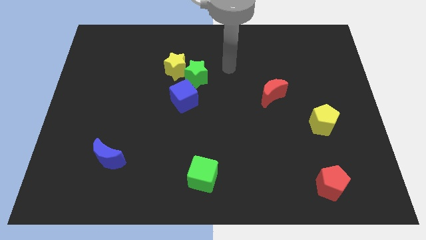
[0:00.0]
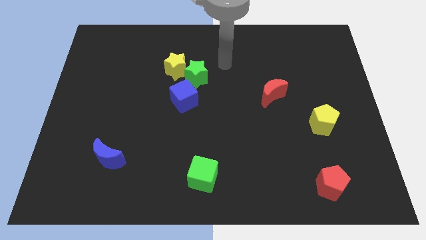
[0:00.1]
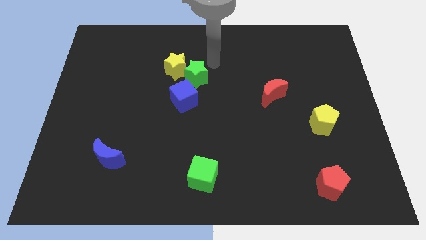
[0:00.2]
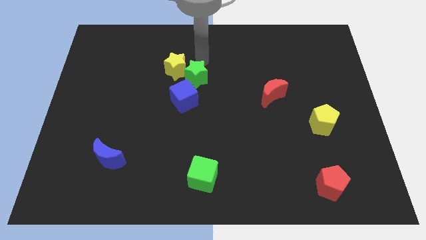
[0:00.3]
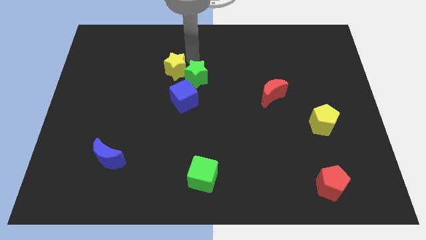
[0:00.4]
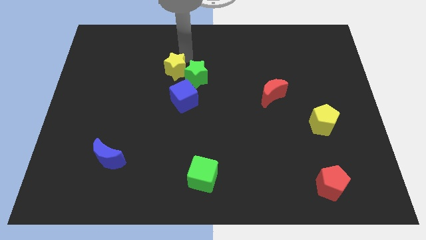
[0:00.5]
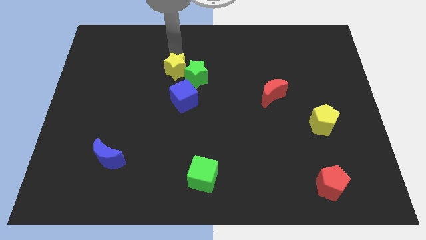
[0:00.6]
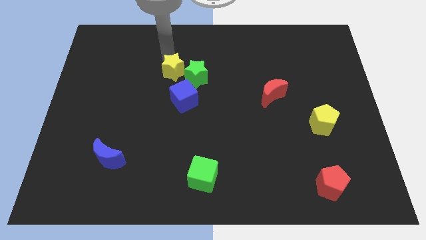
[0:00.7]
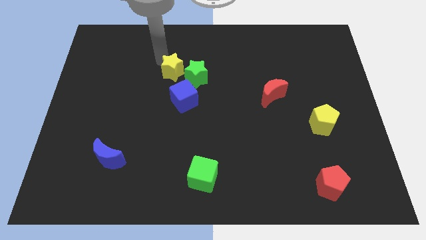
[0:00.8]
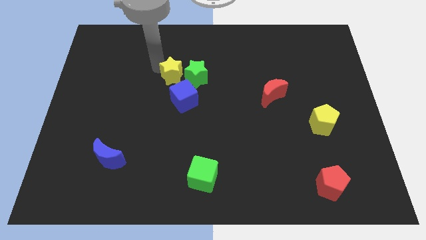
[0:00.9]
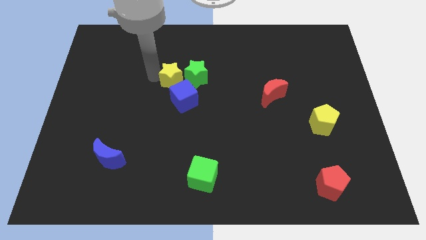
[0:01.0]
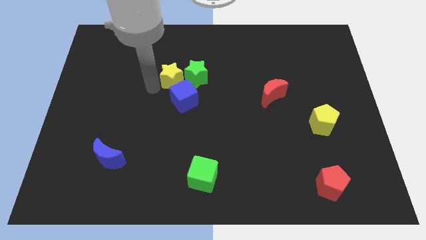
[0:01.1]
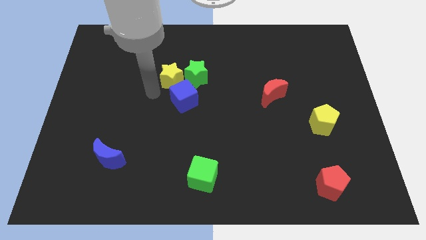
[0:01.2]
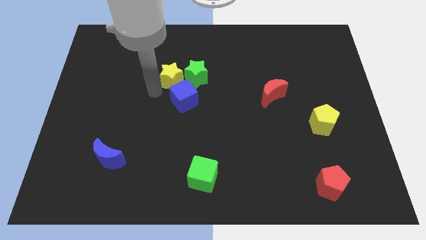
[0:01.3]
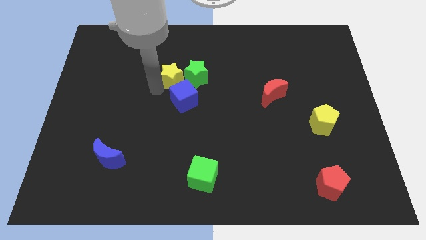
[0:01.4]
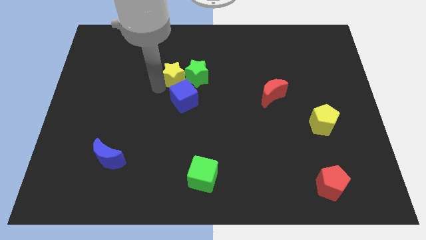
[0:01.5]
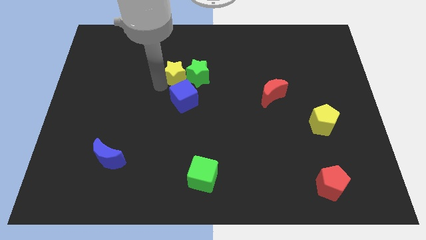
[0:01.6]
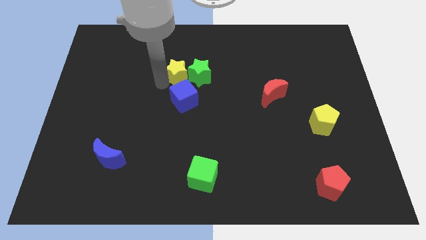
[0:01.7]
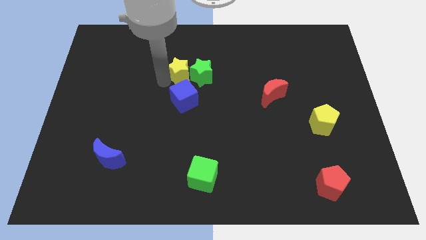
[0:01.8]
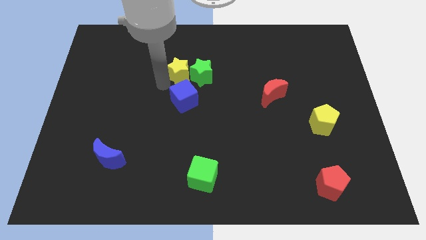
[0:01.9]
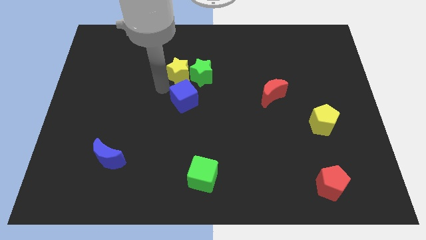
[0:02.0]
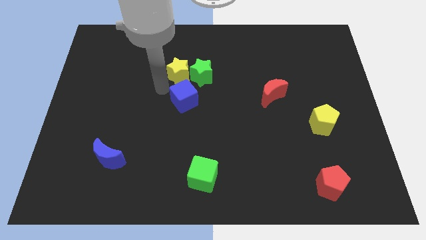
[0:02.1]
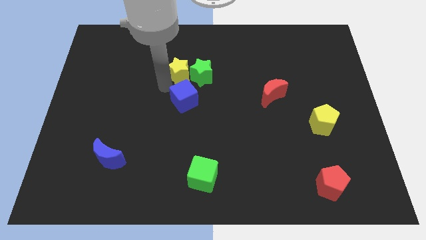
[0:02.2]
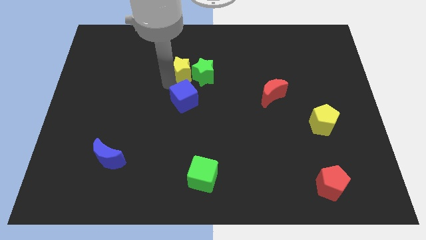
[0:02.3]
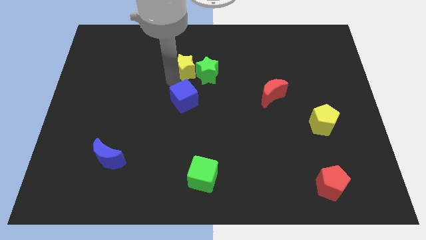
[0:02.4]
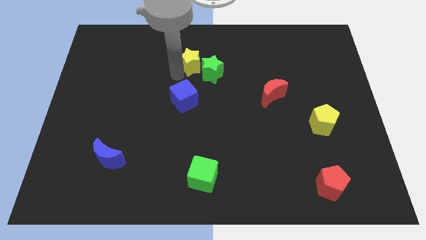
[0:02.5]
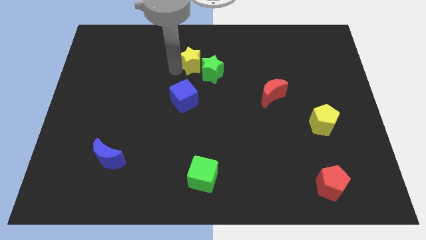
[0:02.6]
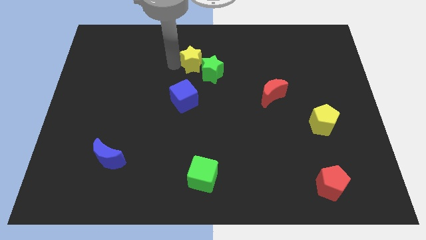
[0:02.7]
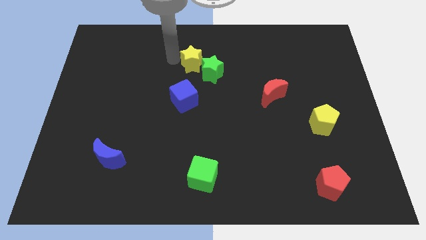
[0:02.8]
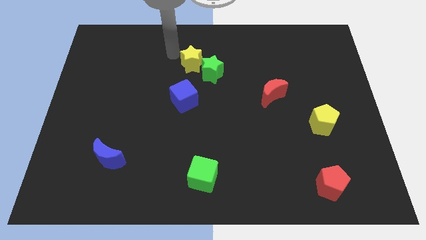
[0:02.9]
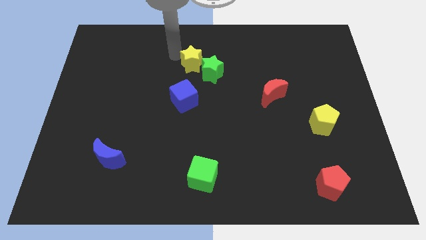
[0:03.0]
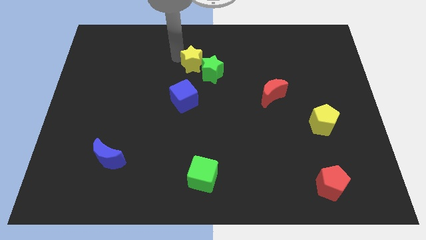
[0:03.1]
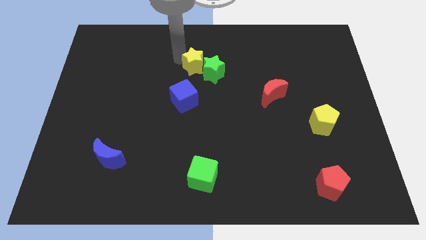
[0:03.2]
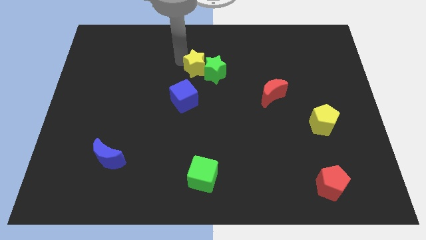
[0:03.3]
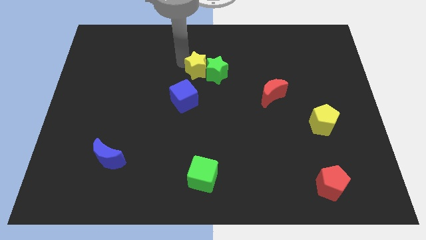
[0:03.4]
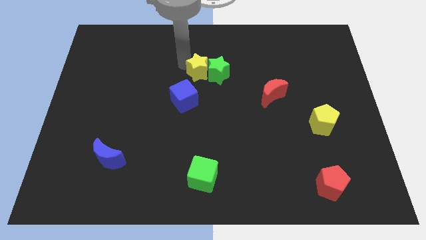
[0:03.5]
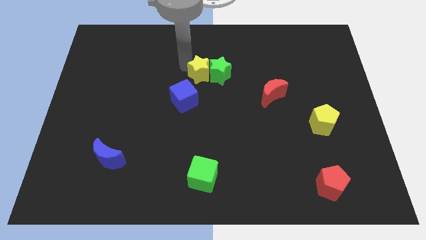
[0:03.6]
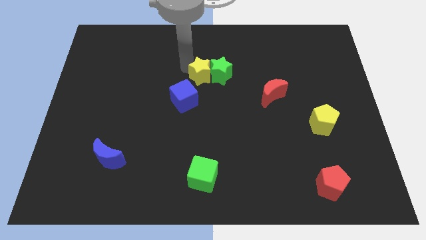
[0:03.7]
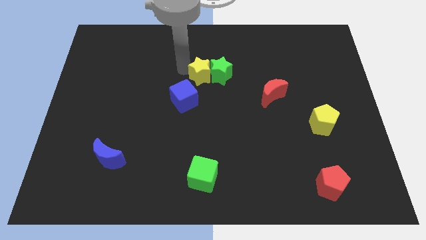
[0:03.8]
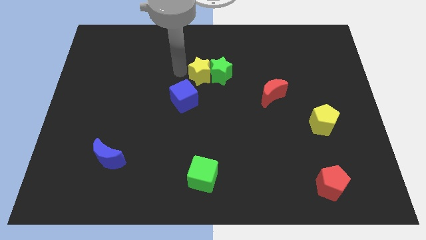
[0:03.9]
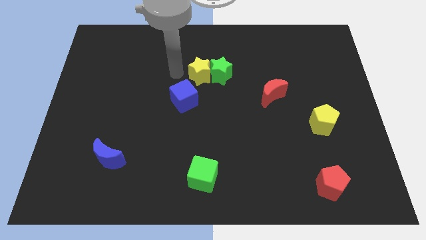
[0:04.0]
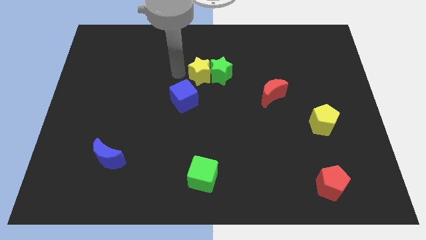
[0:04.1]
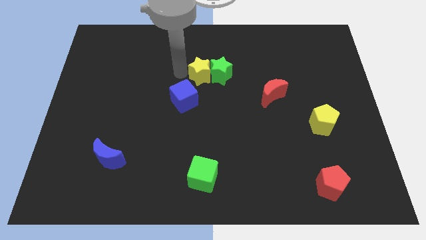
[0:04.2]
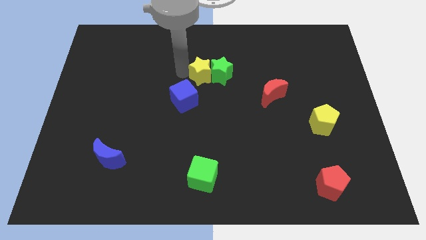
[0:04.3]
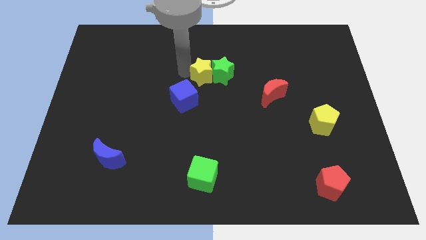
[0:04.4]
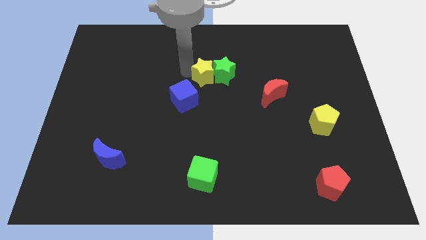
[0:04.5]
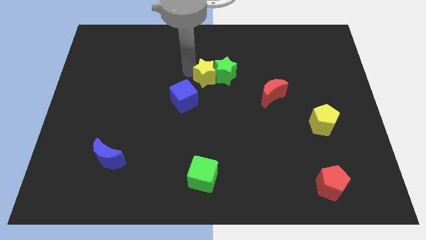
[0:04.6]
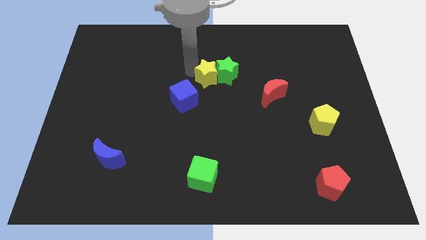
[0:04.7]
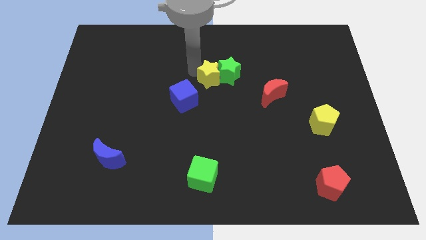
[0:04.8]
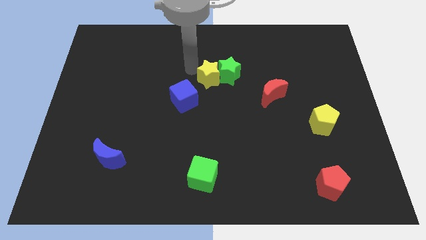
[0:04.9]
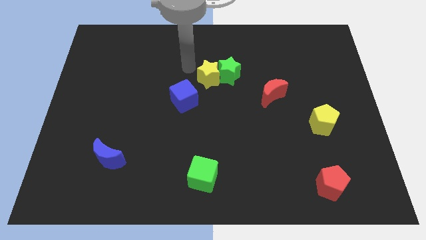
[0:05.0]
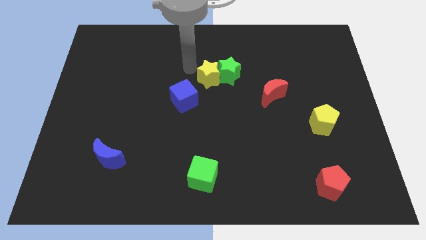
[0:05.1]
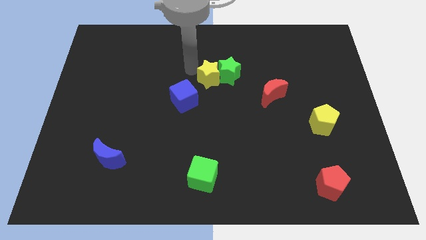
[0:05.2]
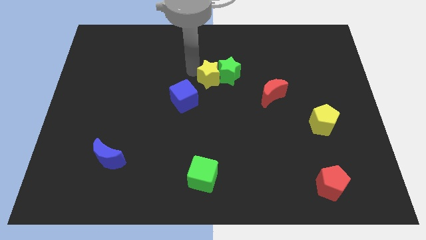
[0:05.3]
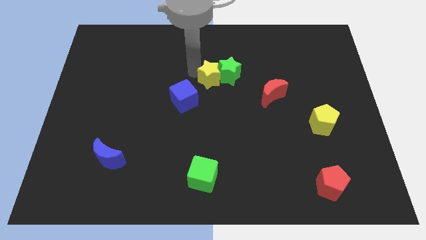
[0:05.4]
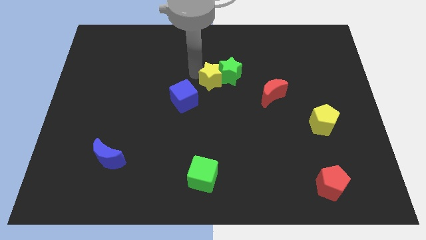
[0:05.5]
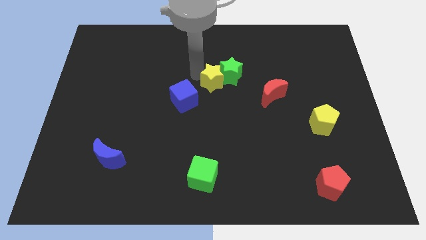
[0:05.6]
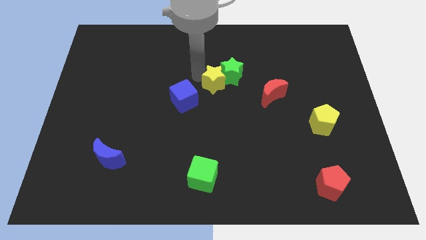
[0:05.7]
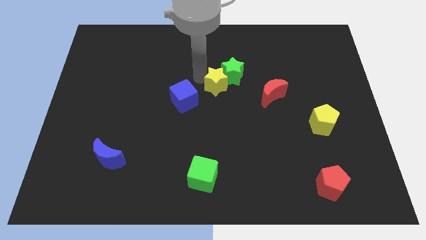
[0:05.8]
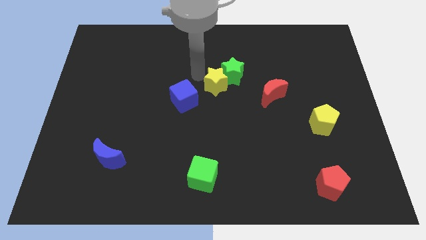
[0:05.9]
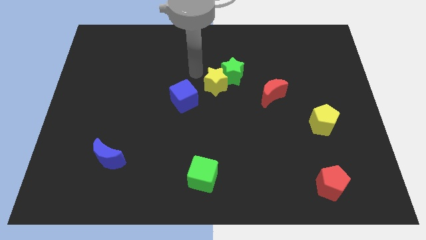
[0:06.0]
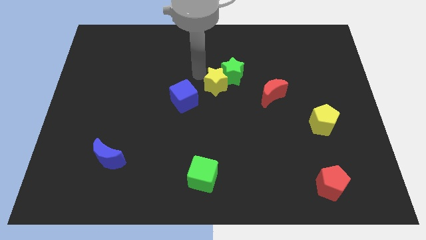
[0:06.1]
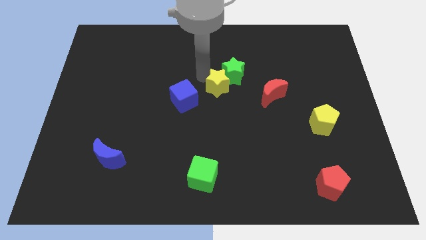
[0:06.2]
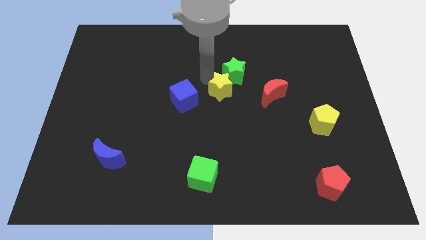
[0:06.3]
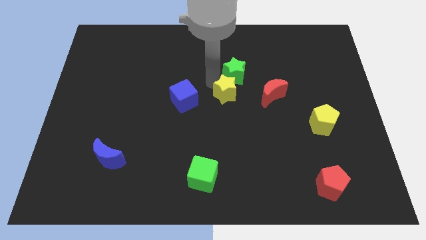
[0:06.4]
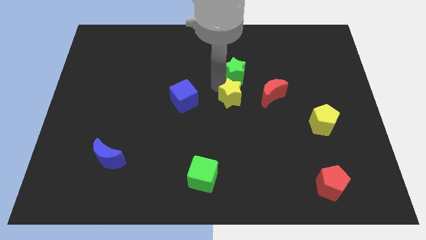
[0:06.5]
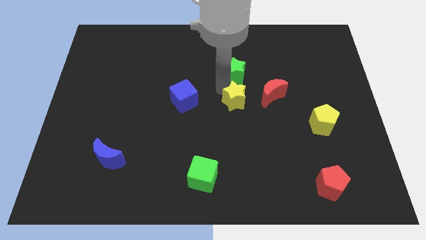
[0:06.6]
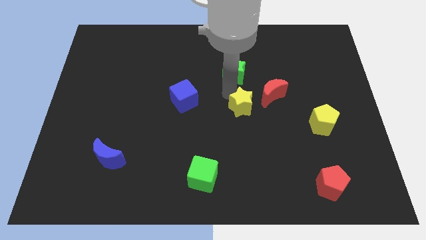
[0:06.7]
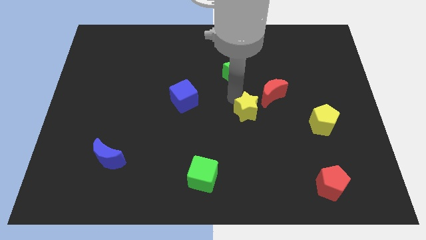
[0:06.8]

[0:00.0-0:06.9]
slide the yellow star diagonally downwards and right

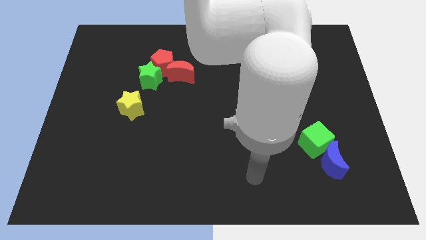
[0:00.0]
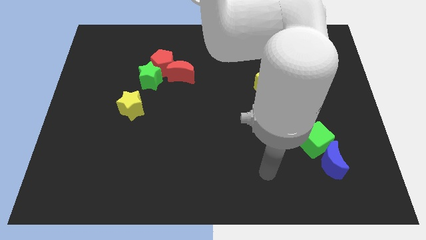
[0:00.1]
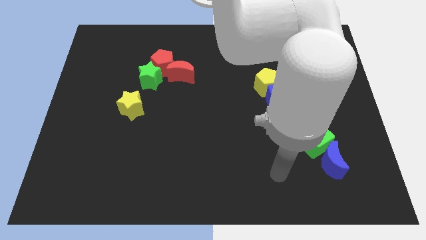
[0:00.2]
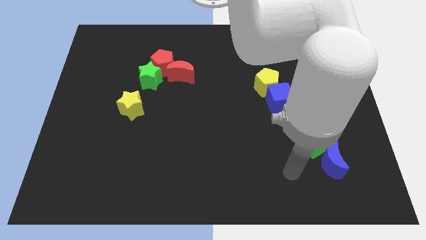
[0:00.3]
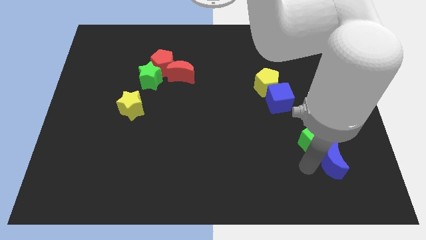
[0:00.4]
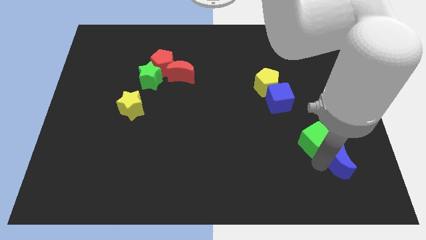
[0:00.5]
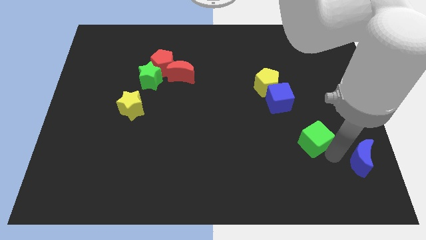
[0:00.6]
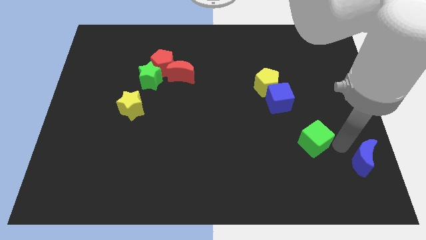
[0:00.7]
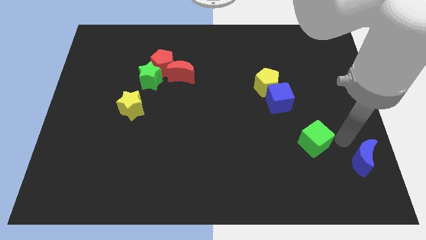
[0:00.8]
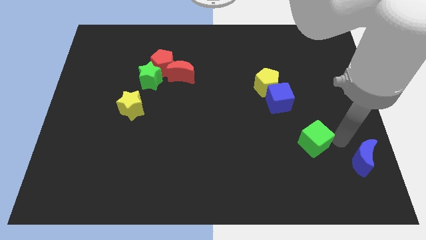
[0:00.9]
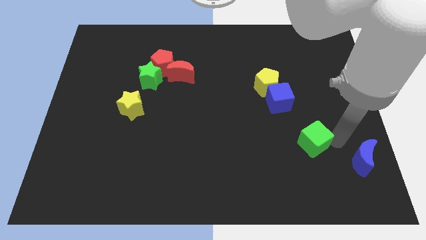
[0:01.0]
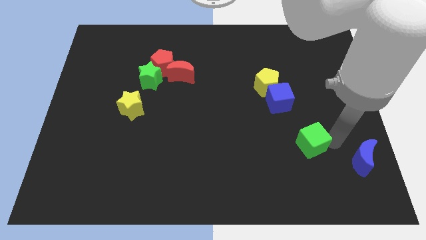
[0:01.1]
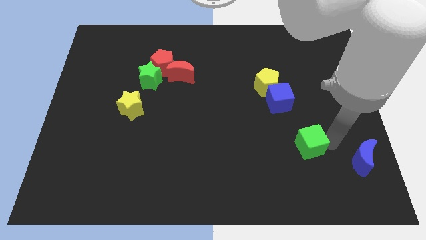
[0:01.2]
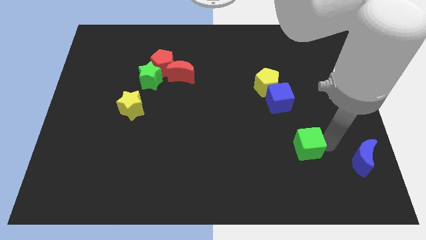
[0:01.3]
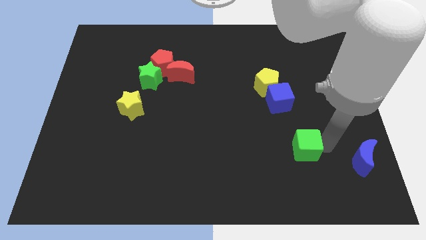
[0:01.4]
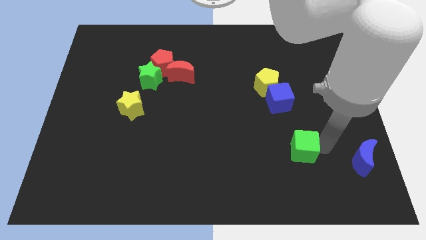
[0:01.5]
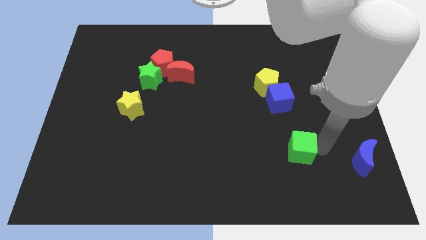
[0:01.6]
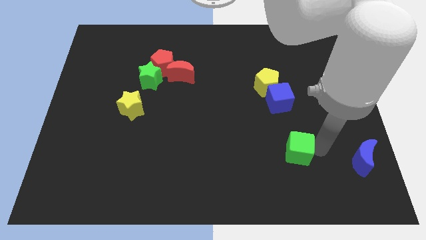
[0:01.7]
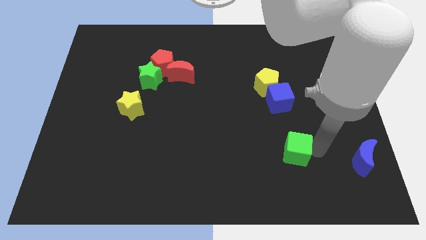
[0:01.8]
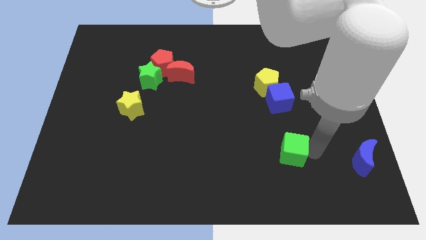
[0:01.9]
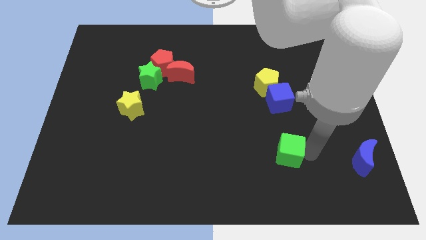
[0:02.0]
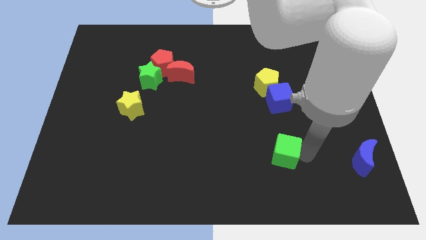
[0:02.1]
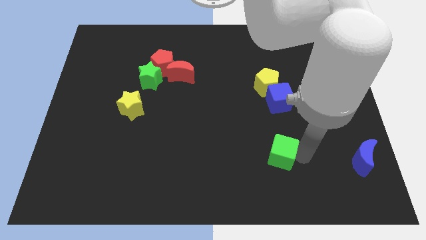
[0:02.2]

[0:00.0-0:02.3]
slide the green cube to the left a little
